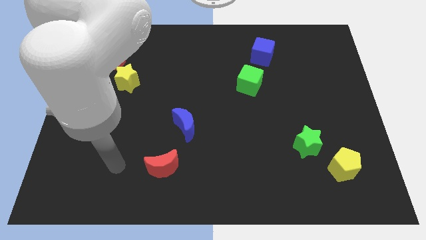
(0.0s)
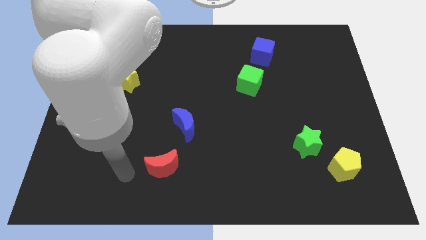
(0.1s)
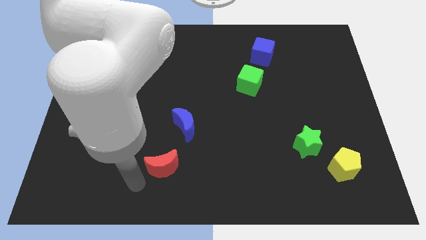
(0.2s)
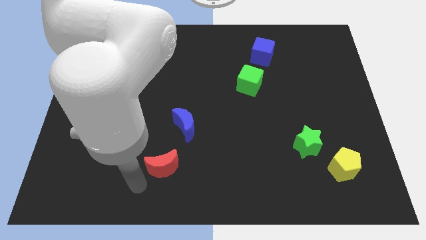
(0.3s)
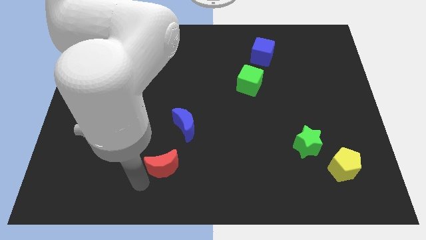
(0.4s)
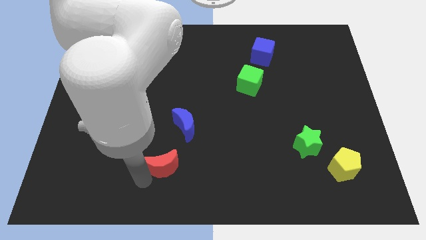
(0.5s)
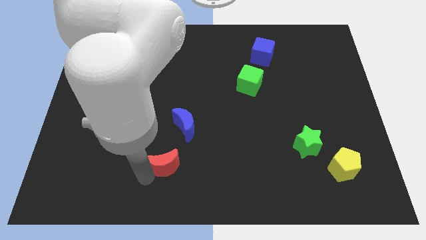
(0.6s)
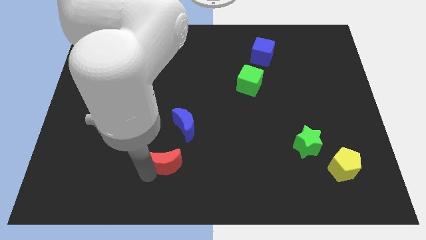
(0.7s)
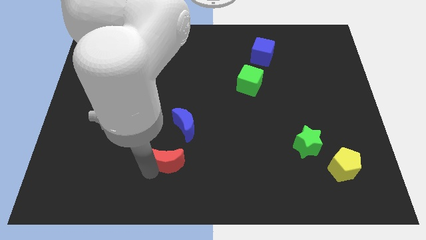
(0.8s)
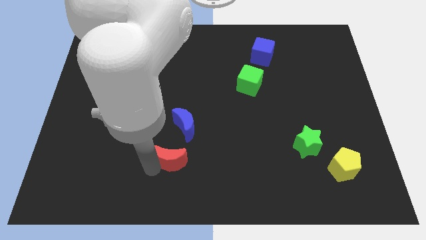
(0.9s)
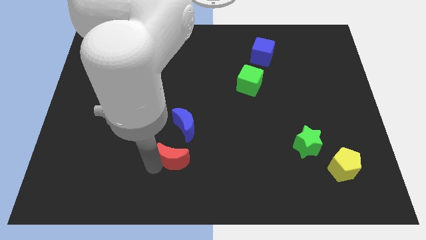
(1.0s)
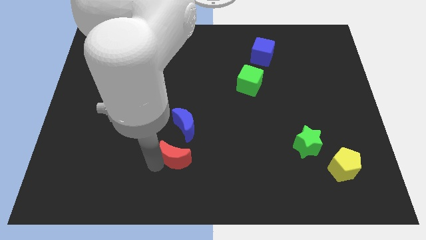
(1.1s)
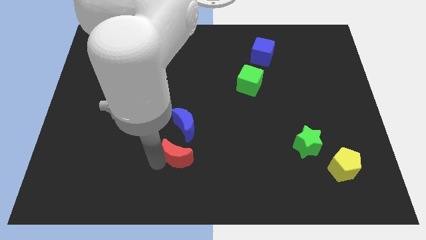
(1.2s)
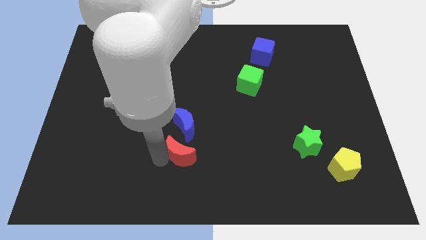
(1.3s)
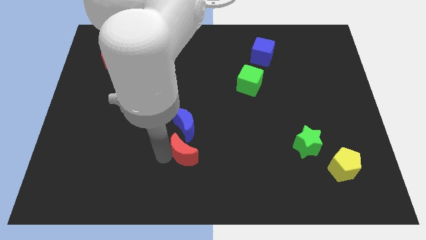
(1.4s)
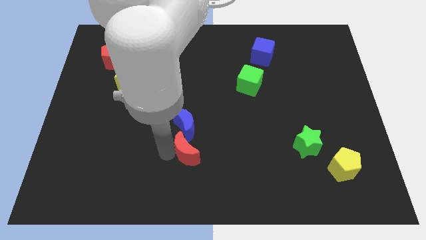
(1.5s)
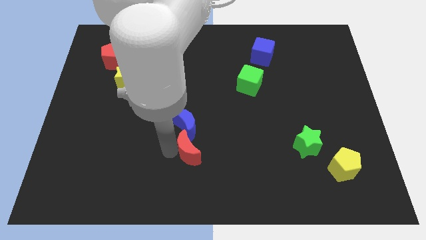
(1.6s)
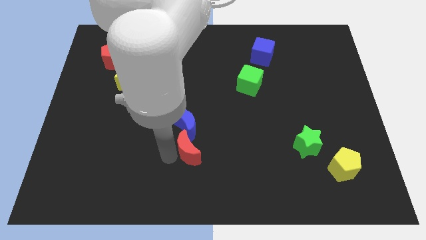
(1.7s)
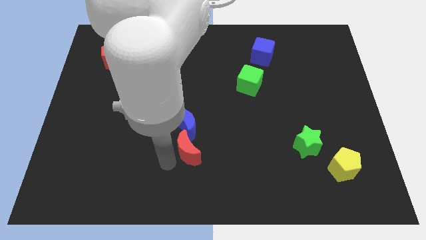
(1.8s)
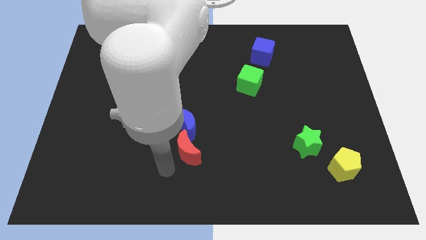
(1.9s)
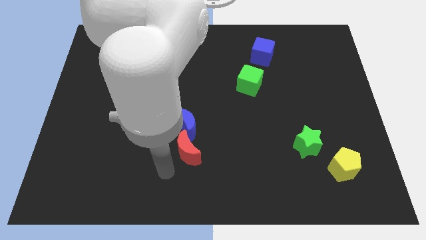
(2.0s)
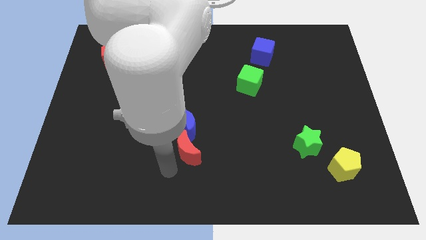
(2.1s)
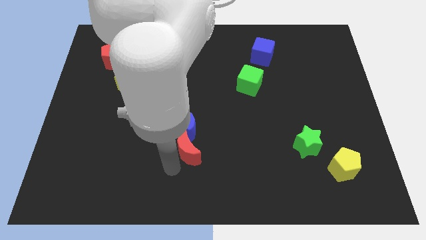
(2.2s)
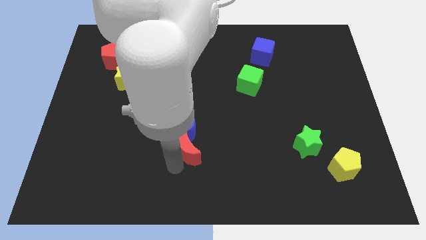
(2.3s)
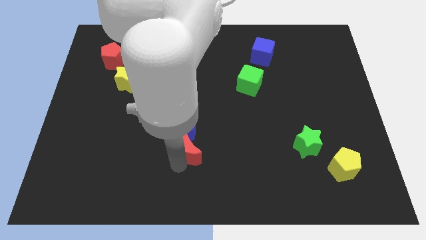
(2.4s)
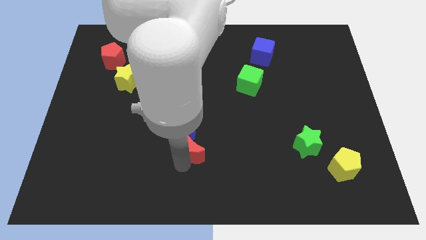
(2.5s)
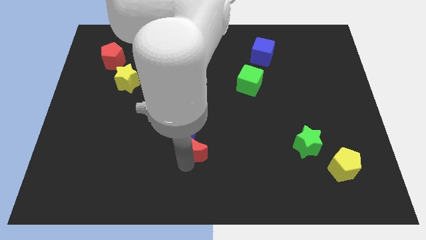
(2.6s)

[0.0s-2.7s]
move the red moon up and right diagonally somewhat

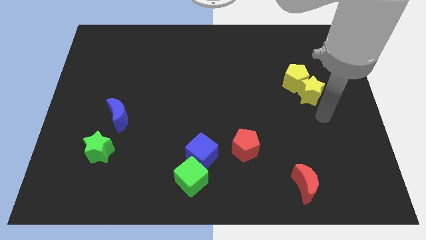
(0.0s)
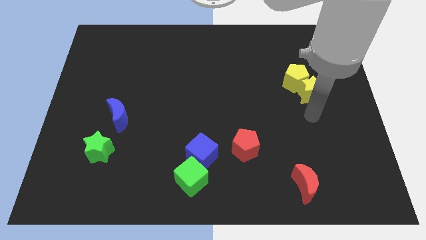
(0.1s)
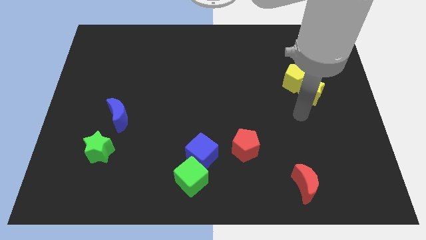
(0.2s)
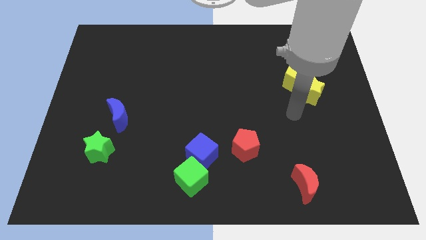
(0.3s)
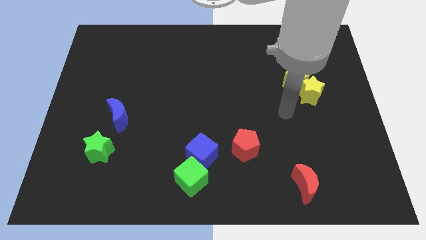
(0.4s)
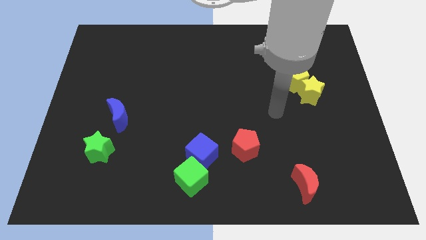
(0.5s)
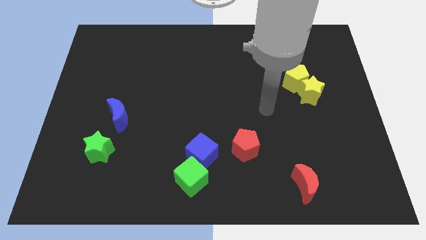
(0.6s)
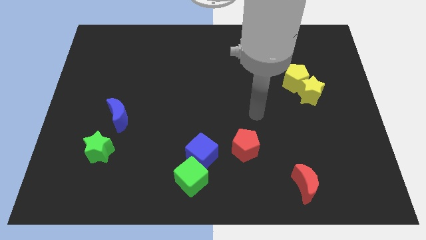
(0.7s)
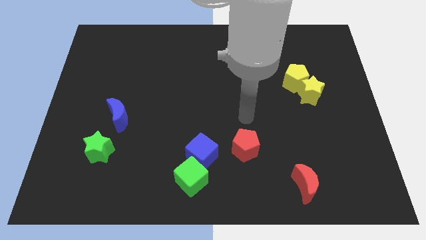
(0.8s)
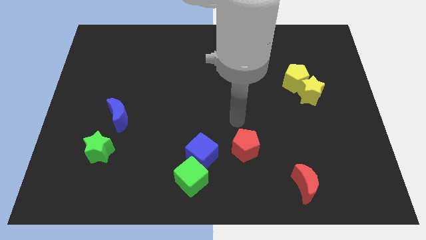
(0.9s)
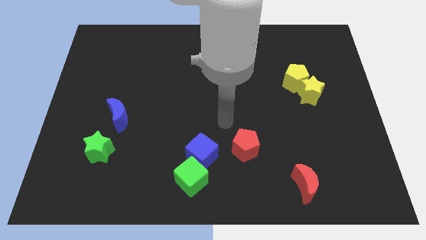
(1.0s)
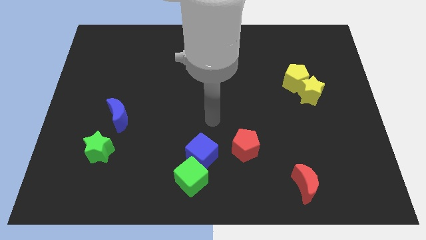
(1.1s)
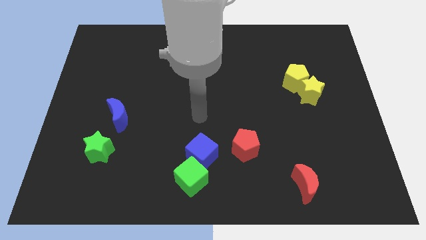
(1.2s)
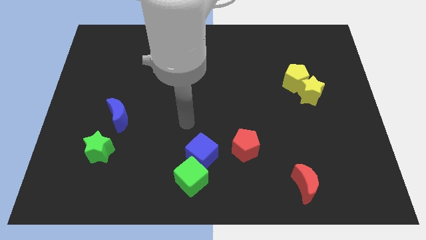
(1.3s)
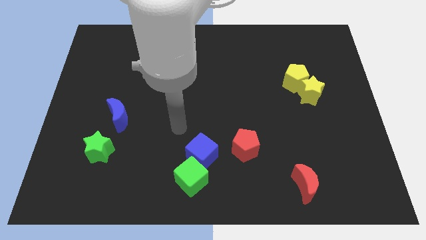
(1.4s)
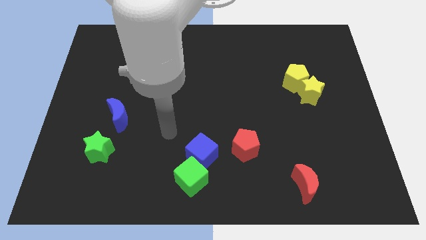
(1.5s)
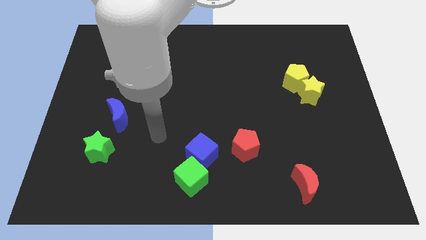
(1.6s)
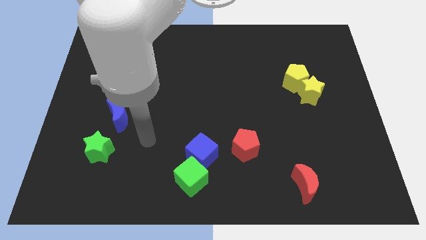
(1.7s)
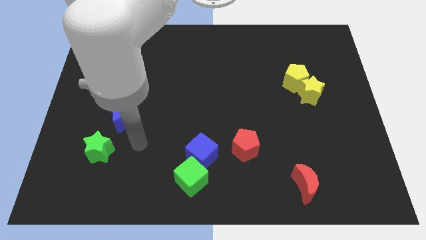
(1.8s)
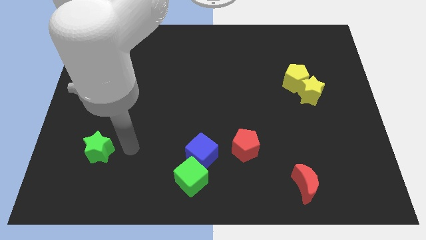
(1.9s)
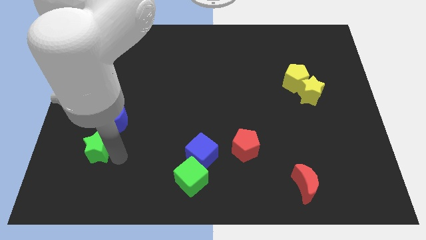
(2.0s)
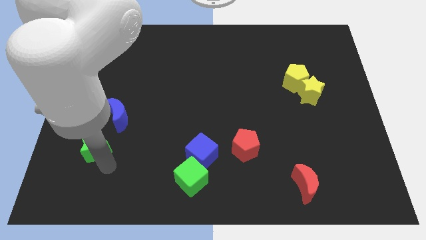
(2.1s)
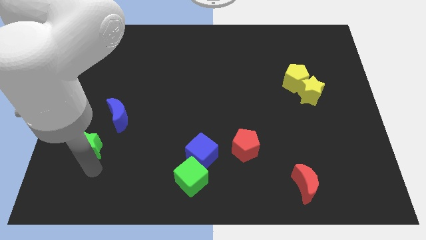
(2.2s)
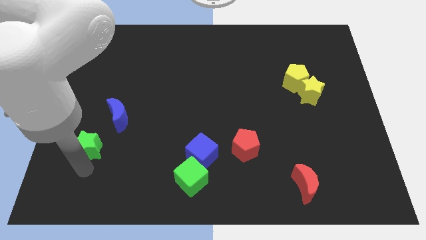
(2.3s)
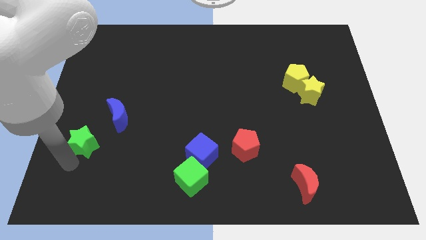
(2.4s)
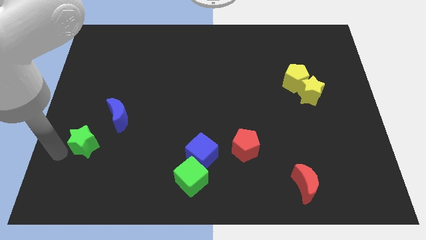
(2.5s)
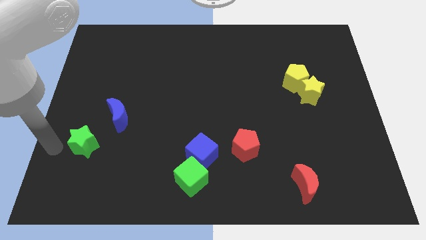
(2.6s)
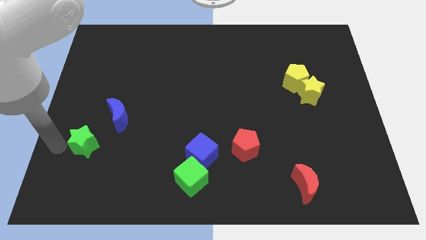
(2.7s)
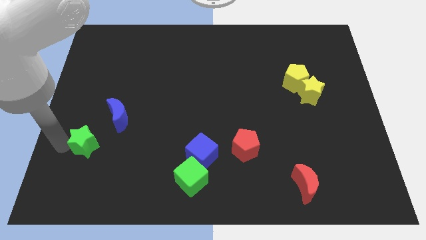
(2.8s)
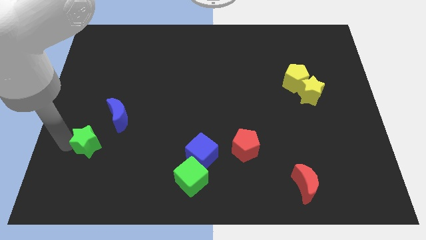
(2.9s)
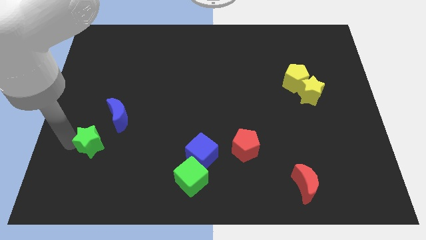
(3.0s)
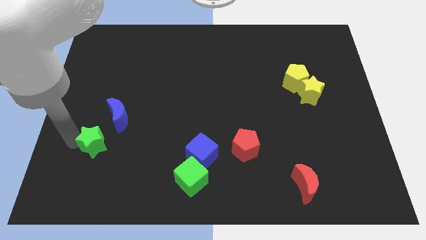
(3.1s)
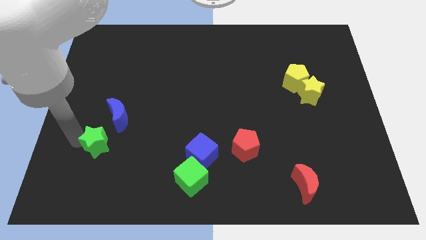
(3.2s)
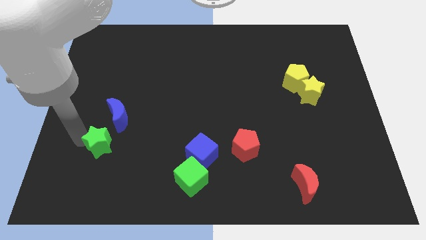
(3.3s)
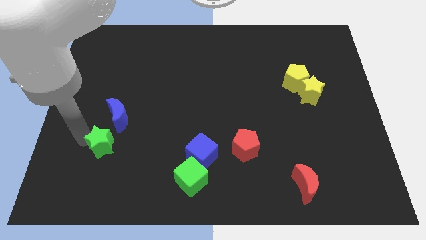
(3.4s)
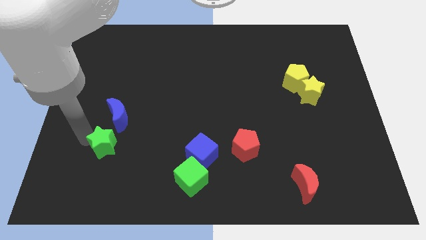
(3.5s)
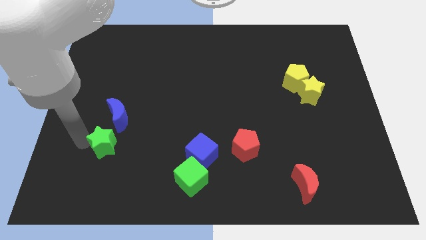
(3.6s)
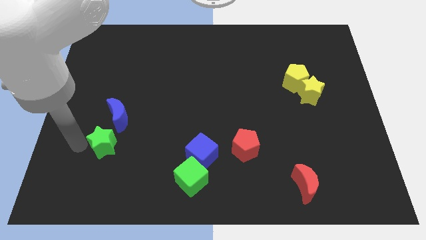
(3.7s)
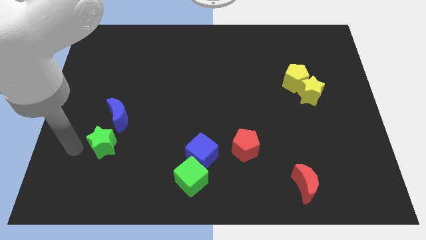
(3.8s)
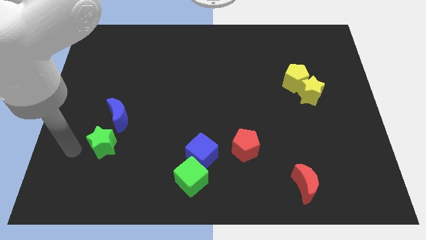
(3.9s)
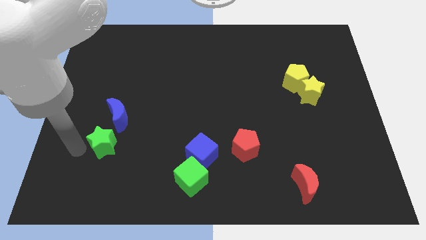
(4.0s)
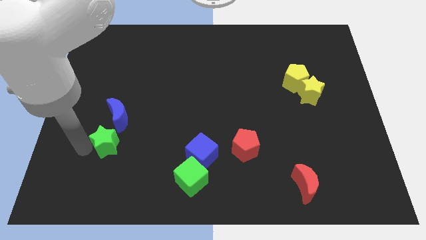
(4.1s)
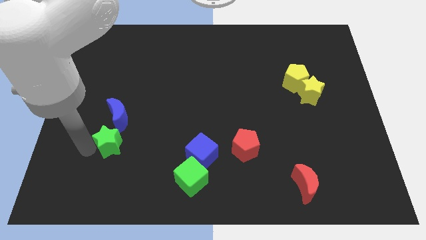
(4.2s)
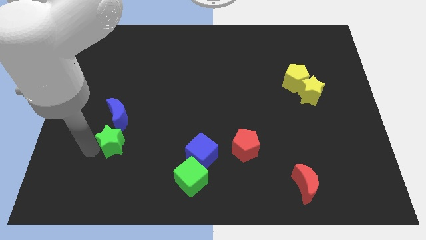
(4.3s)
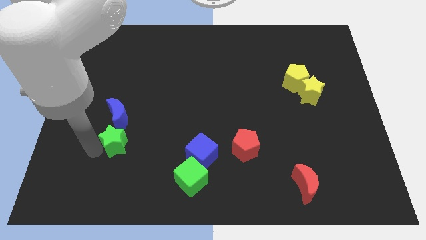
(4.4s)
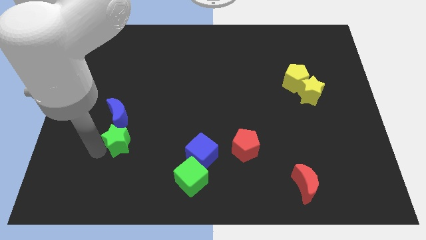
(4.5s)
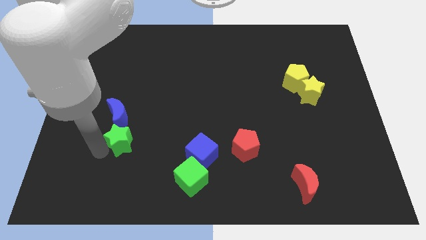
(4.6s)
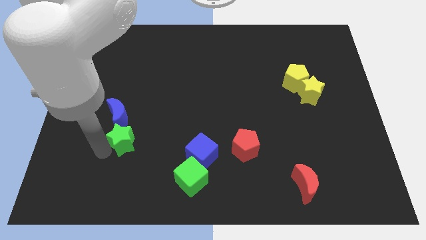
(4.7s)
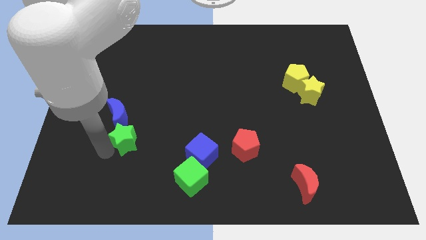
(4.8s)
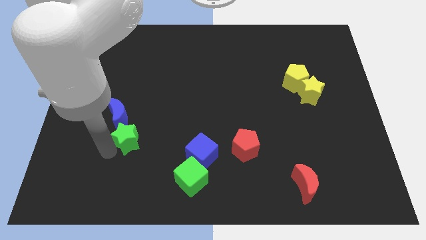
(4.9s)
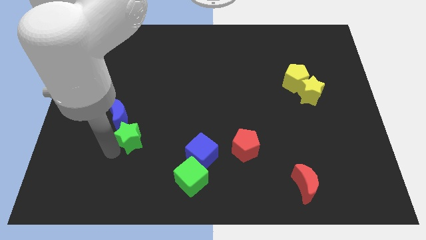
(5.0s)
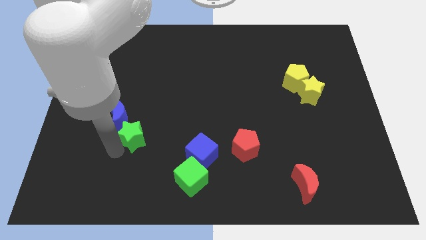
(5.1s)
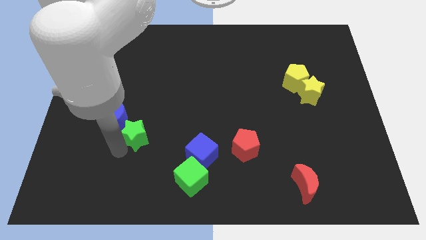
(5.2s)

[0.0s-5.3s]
slightly move the green star upwards and to the right
